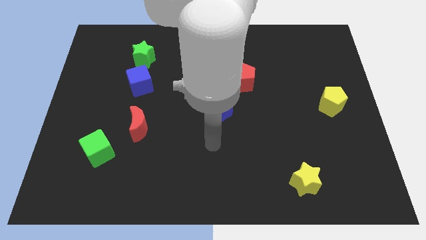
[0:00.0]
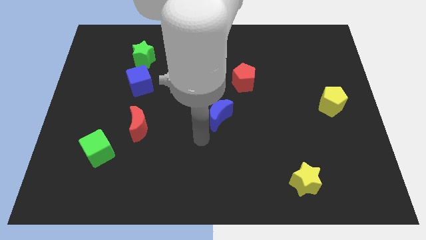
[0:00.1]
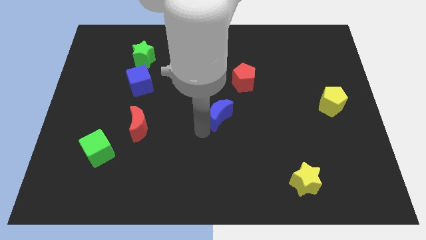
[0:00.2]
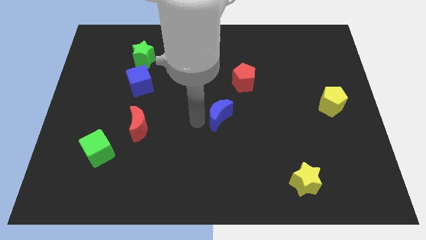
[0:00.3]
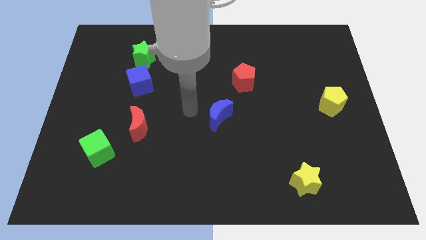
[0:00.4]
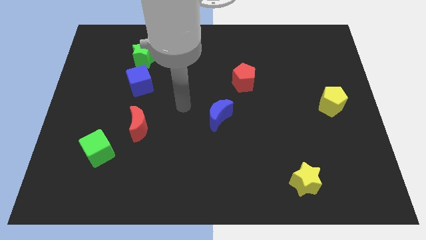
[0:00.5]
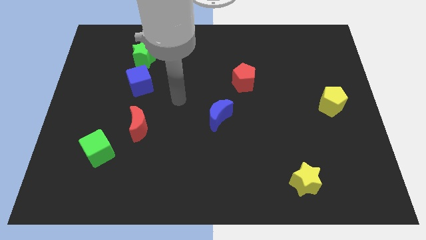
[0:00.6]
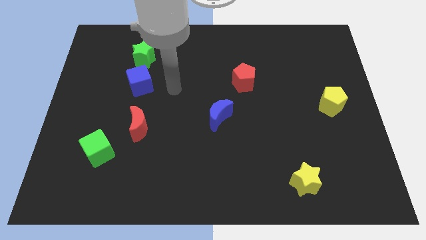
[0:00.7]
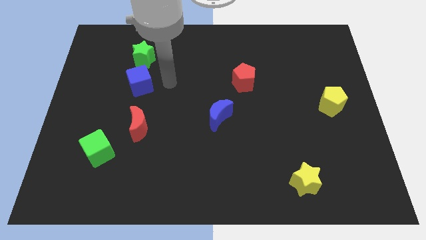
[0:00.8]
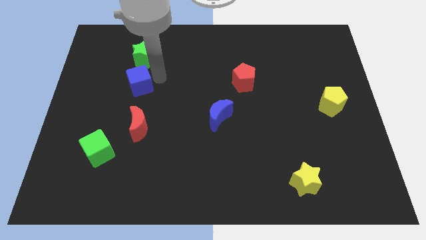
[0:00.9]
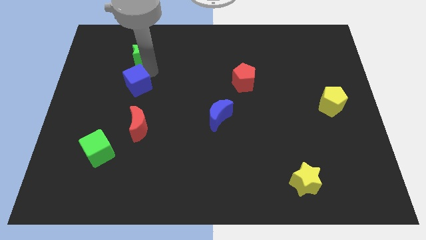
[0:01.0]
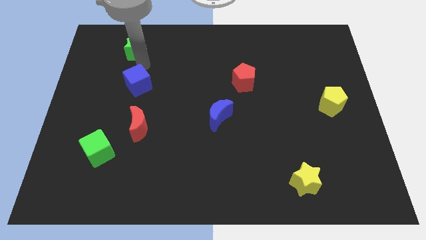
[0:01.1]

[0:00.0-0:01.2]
move the blue cube away from the green star

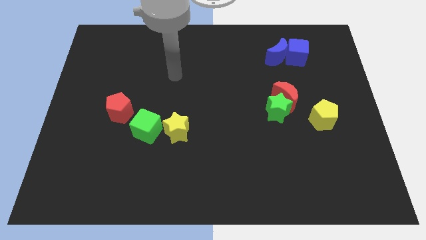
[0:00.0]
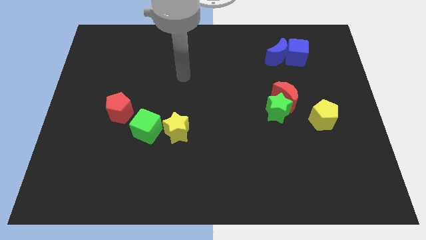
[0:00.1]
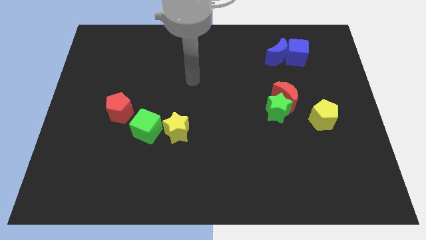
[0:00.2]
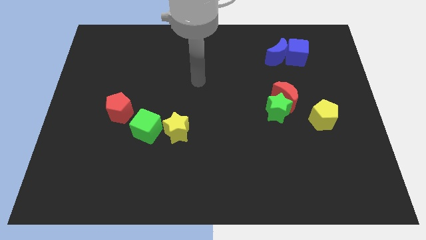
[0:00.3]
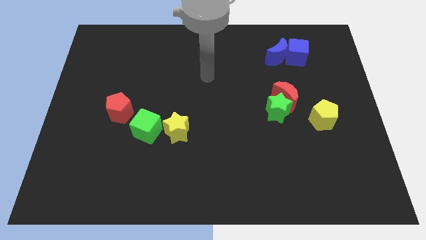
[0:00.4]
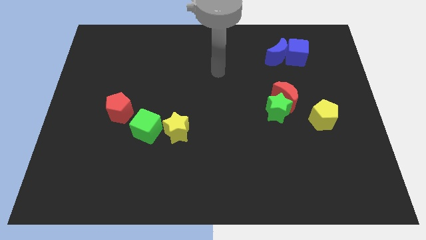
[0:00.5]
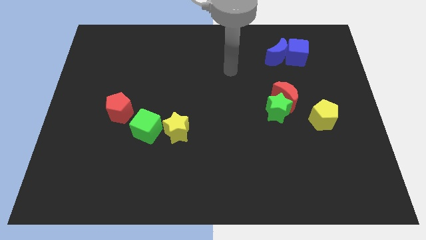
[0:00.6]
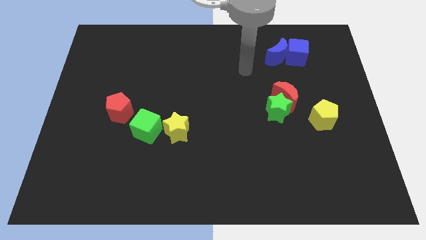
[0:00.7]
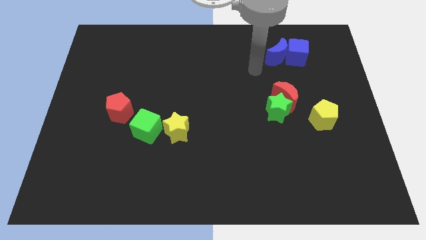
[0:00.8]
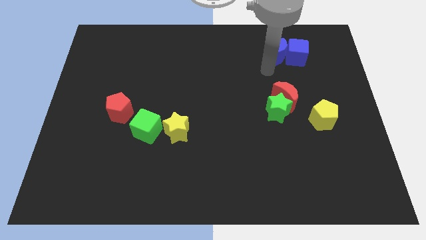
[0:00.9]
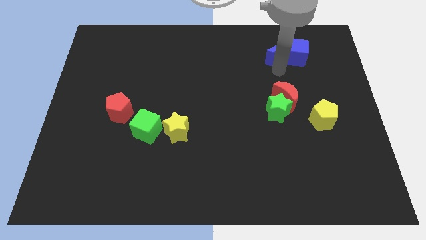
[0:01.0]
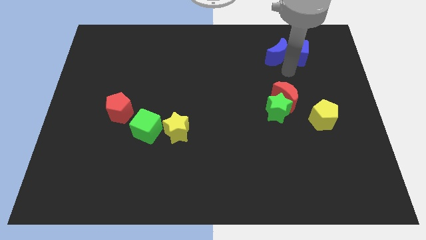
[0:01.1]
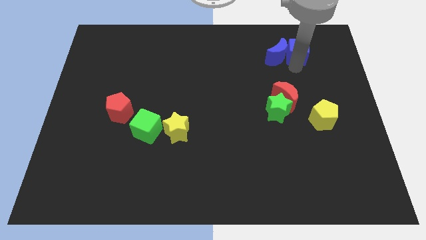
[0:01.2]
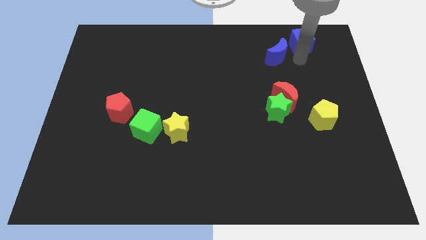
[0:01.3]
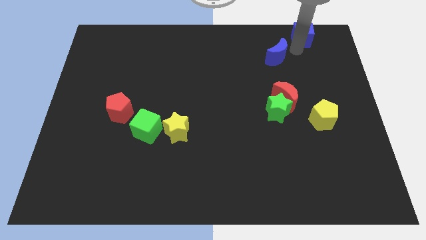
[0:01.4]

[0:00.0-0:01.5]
pull the blue moon apart from the blue cube

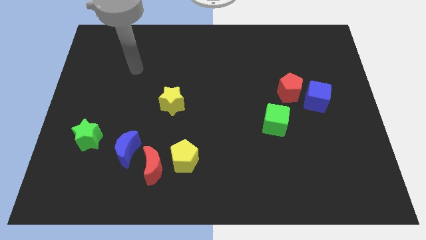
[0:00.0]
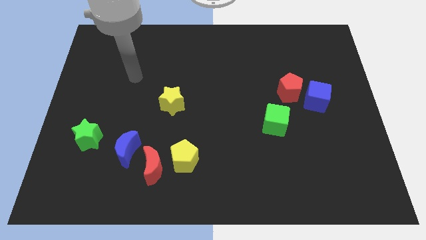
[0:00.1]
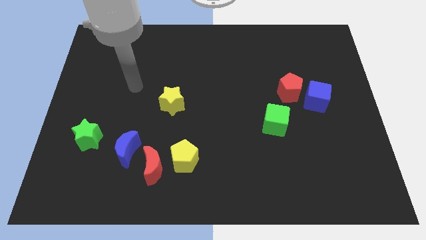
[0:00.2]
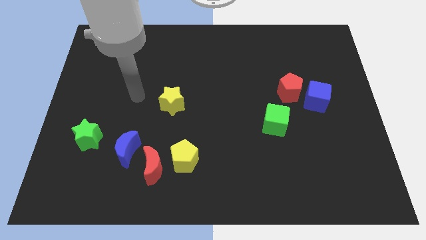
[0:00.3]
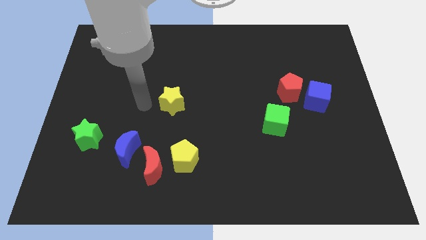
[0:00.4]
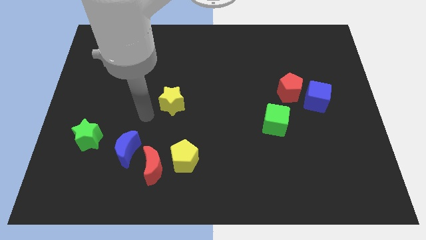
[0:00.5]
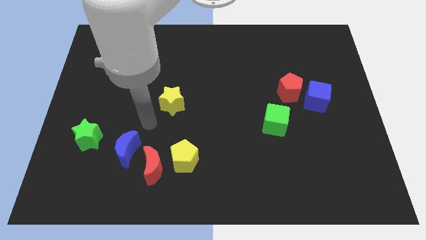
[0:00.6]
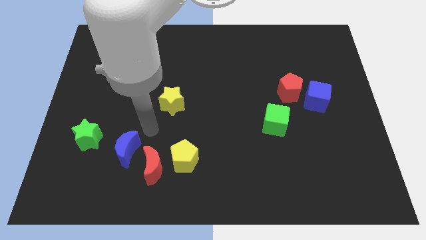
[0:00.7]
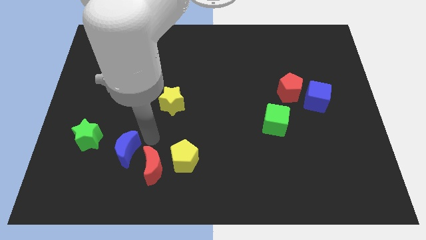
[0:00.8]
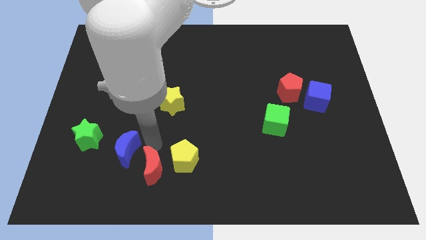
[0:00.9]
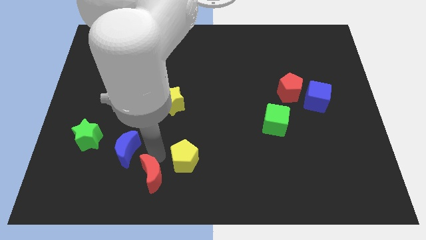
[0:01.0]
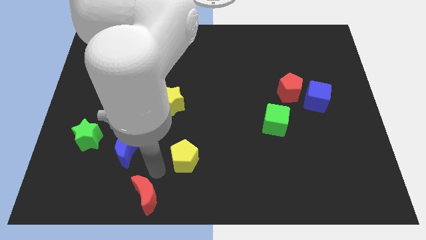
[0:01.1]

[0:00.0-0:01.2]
separate the yellow pentagon from the red moon

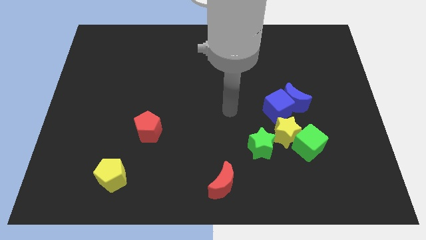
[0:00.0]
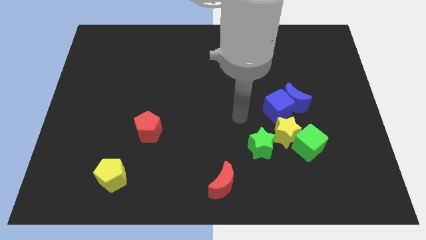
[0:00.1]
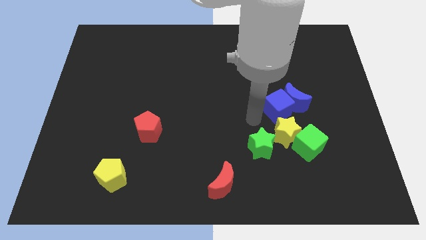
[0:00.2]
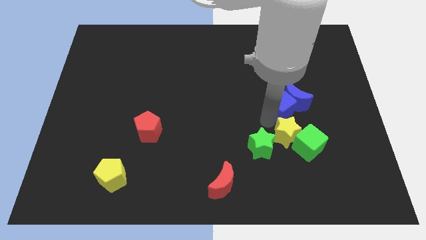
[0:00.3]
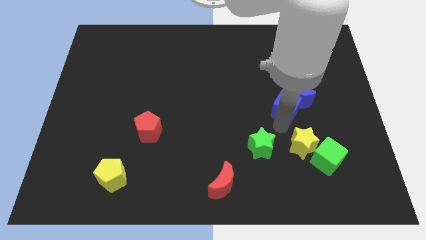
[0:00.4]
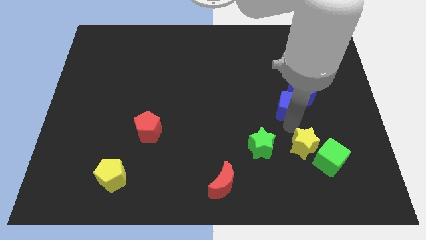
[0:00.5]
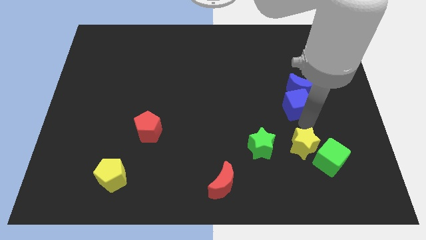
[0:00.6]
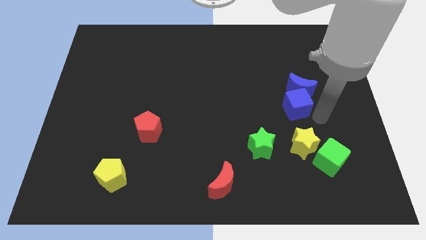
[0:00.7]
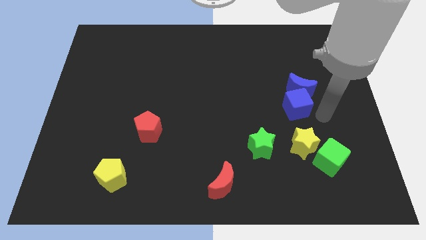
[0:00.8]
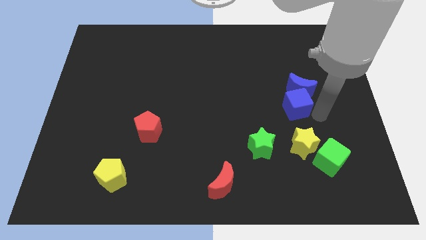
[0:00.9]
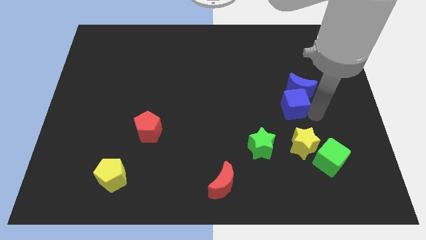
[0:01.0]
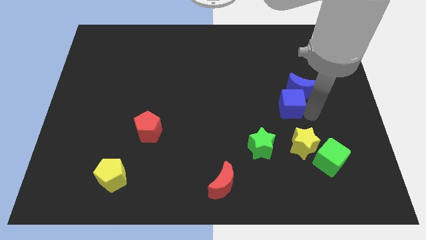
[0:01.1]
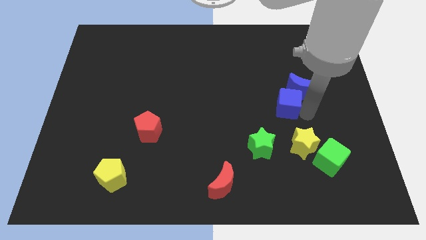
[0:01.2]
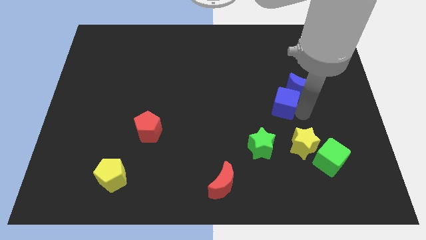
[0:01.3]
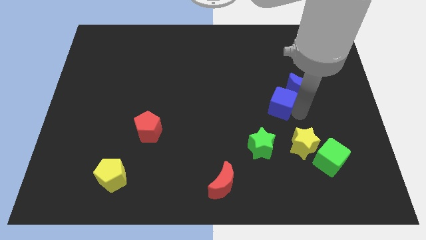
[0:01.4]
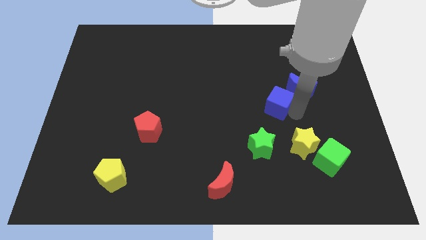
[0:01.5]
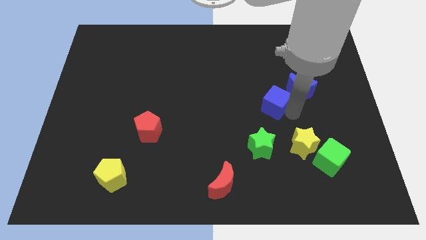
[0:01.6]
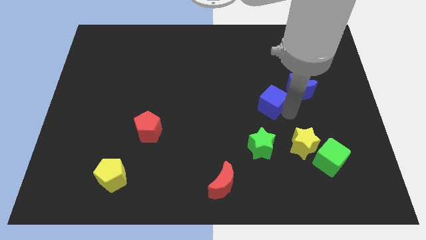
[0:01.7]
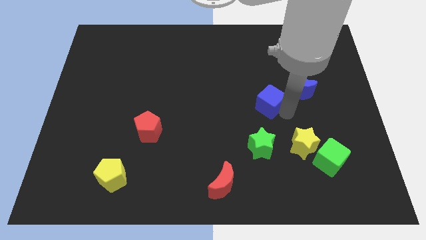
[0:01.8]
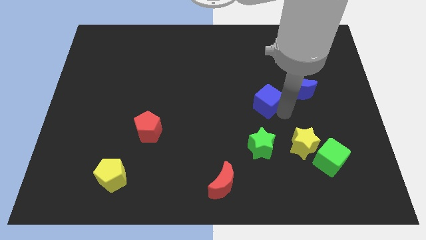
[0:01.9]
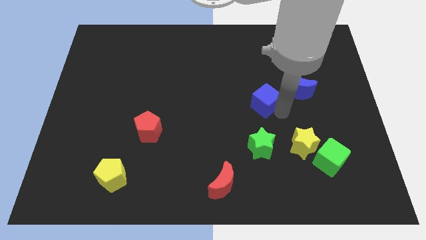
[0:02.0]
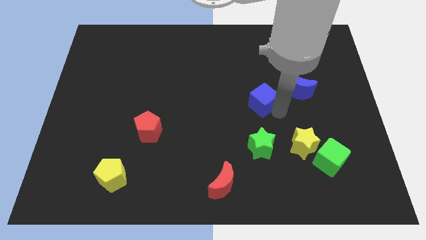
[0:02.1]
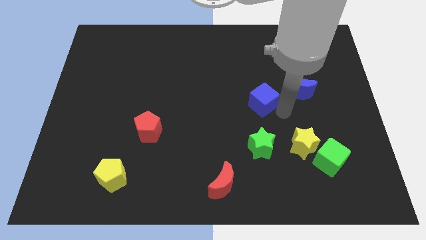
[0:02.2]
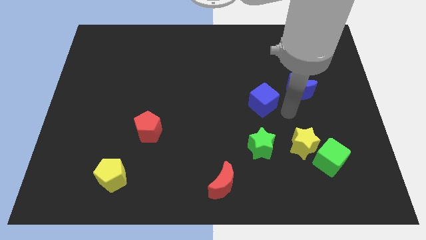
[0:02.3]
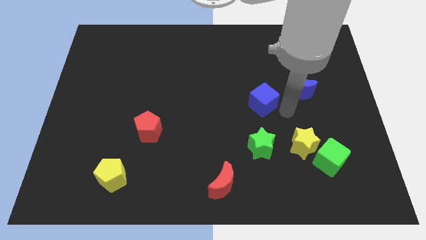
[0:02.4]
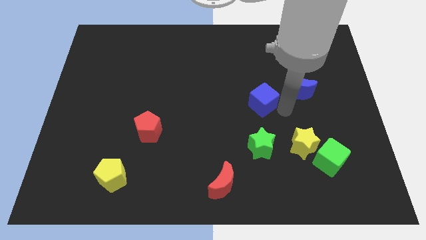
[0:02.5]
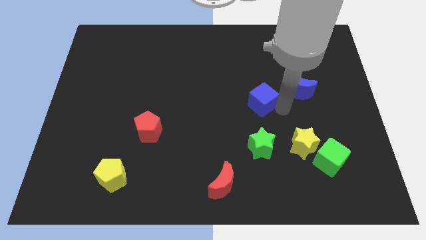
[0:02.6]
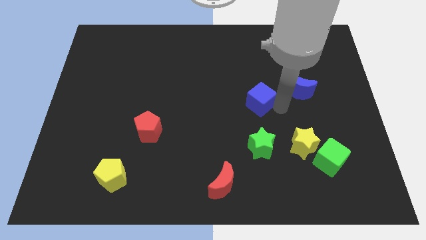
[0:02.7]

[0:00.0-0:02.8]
move the blue cube away from the blue moon and yellow star

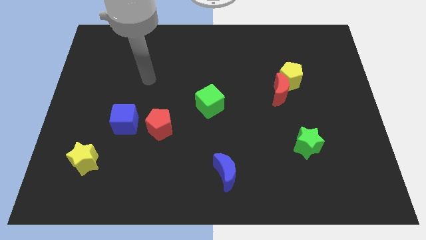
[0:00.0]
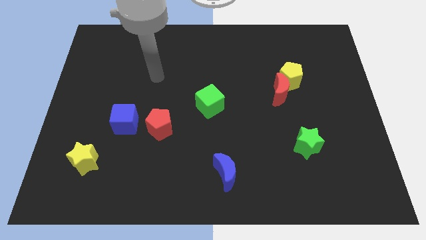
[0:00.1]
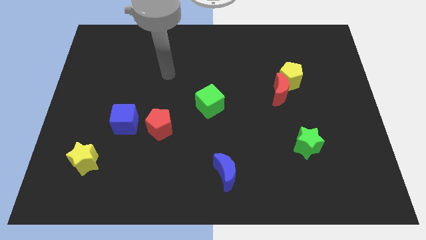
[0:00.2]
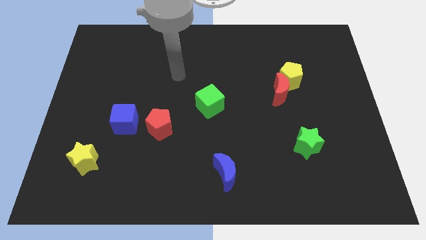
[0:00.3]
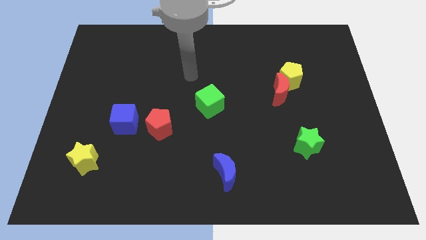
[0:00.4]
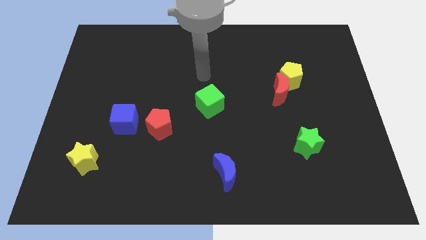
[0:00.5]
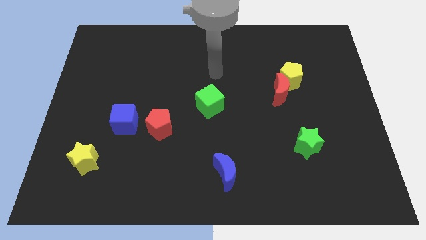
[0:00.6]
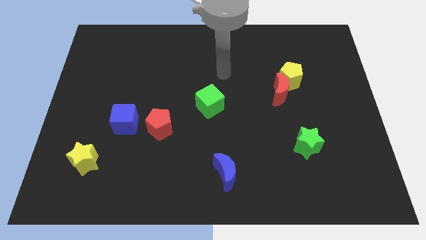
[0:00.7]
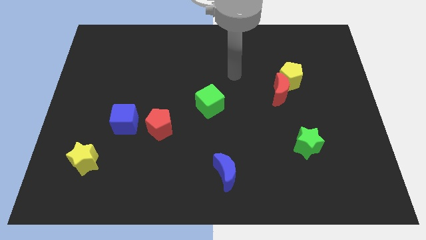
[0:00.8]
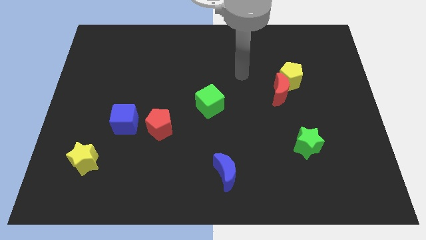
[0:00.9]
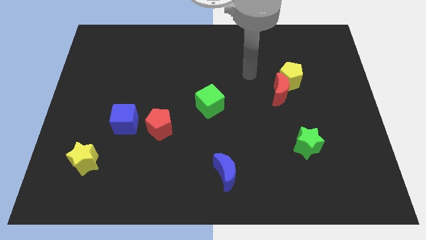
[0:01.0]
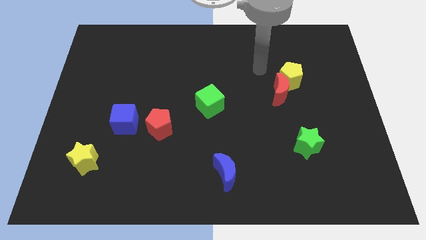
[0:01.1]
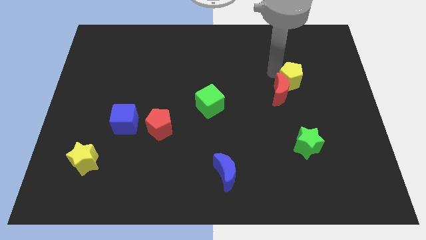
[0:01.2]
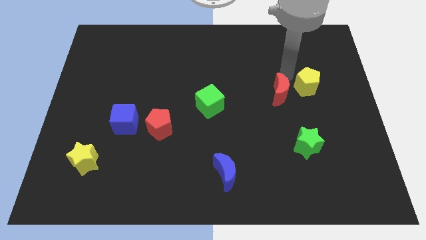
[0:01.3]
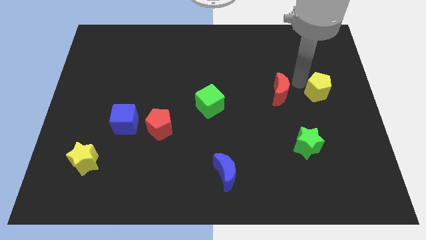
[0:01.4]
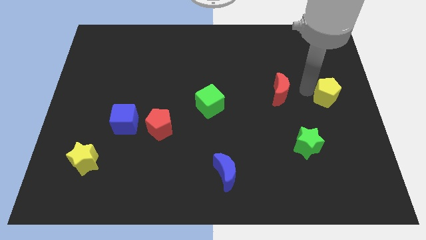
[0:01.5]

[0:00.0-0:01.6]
separate the red moon from the yellow pentagon

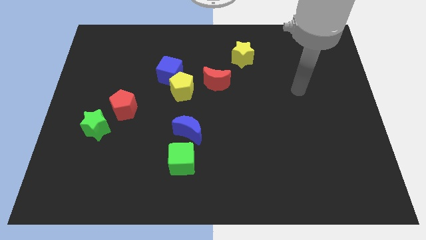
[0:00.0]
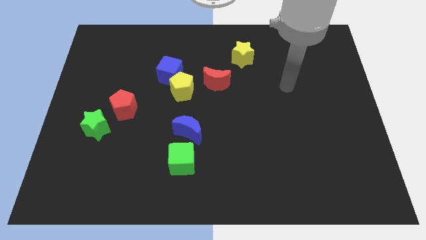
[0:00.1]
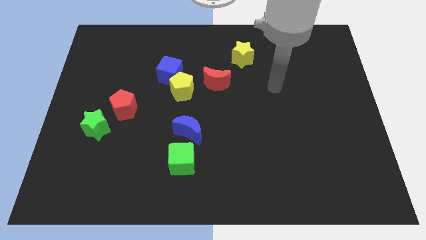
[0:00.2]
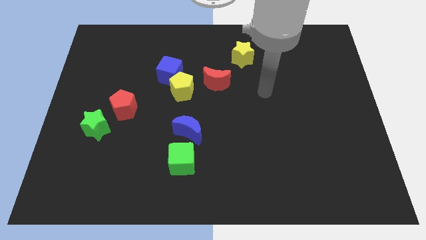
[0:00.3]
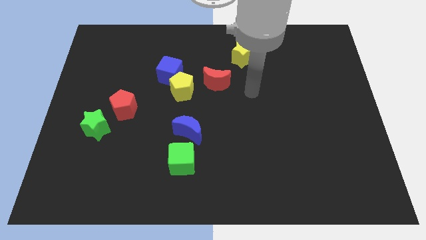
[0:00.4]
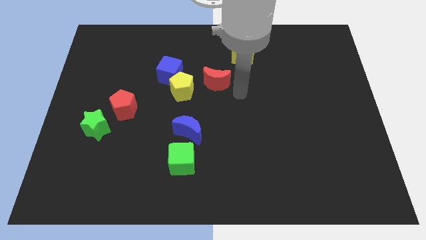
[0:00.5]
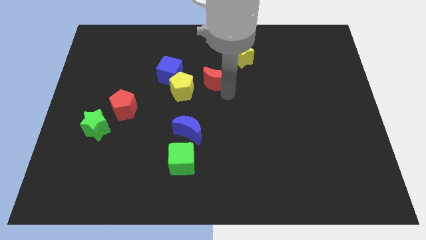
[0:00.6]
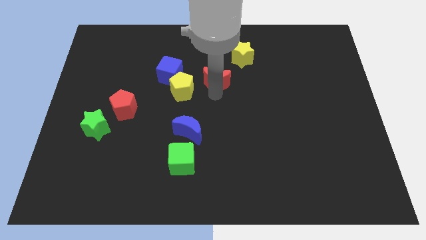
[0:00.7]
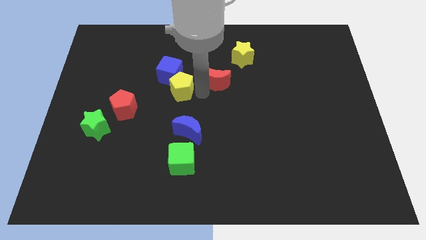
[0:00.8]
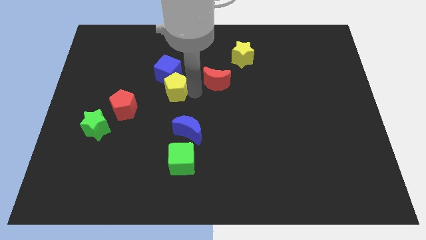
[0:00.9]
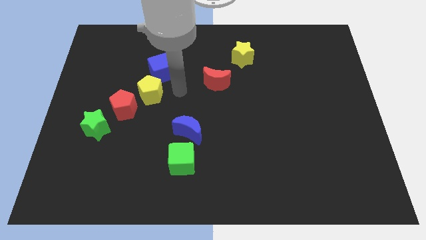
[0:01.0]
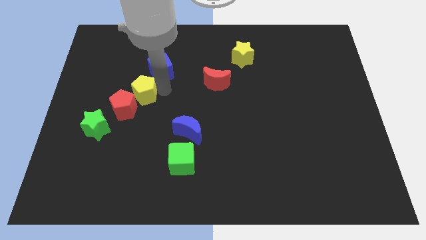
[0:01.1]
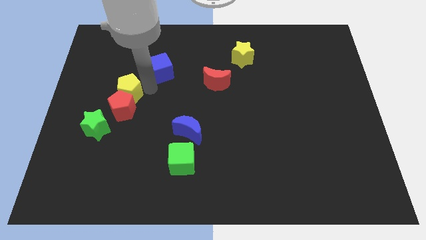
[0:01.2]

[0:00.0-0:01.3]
move the blue cube away from the yellow pentagon
